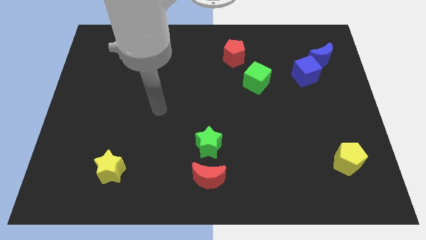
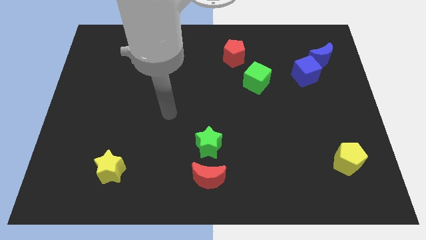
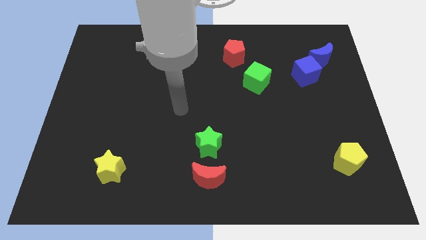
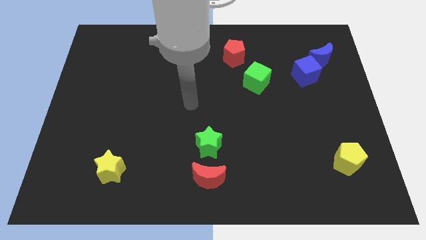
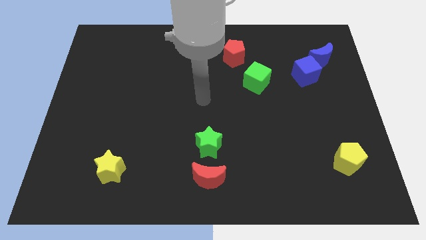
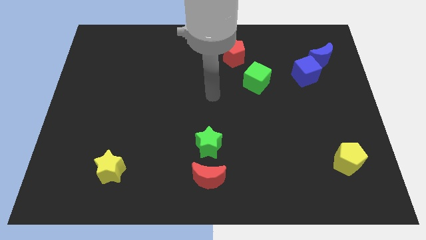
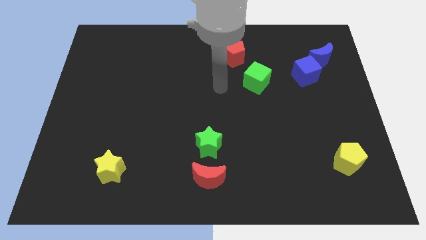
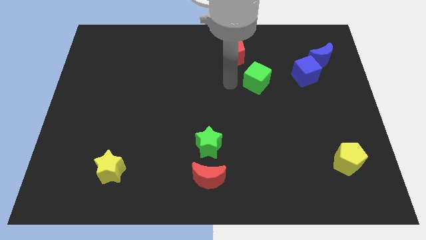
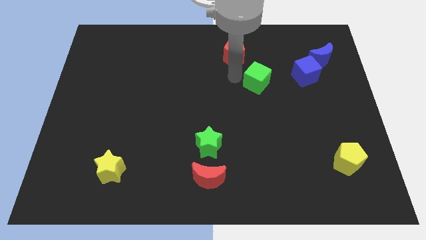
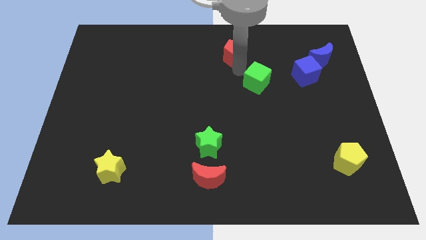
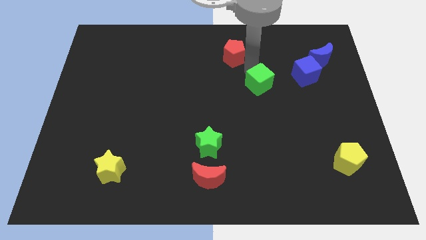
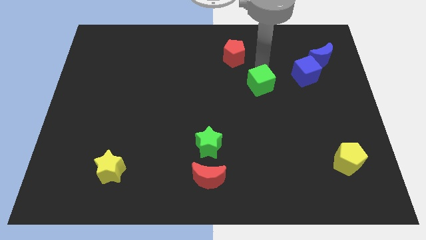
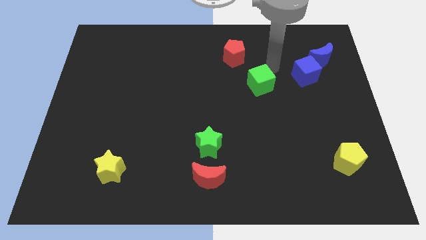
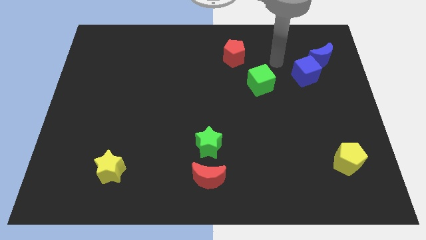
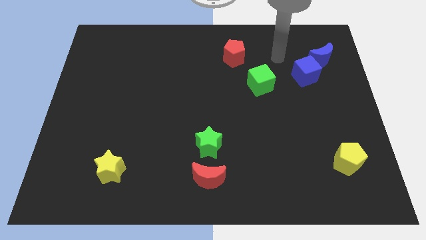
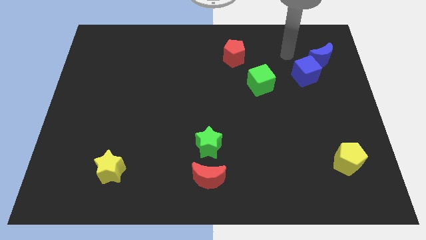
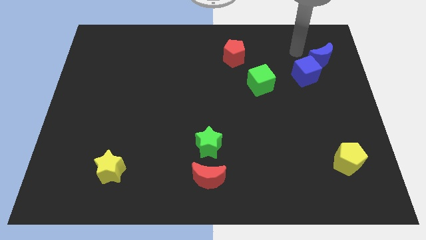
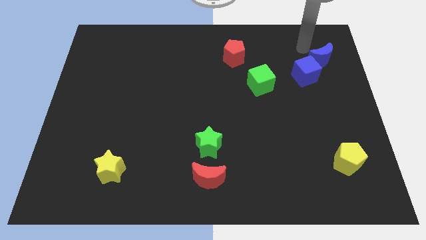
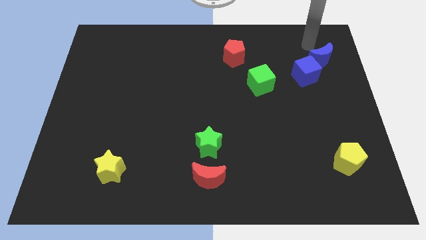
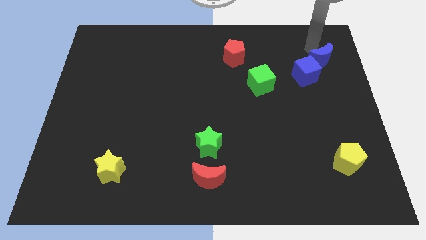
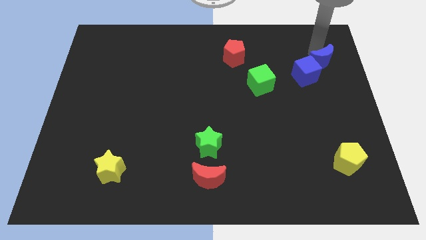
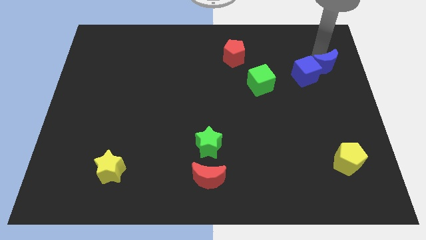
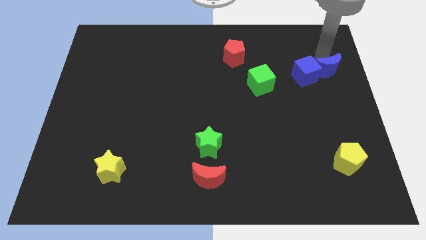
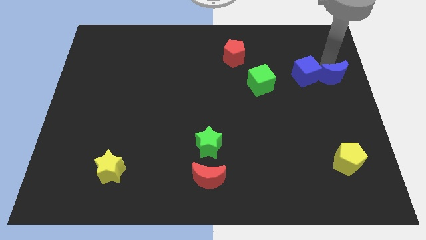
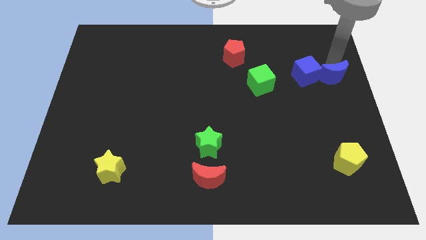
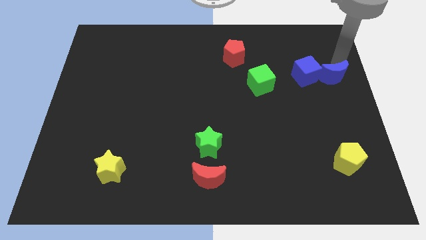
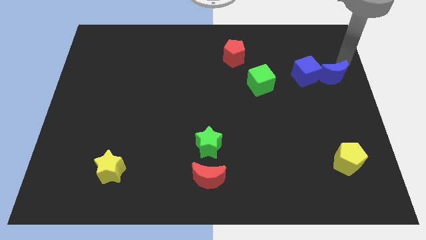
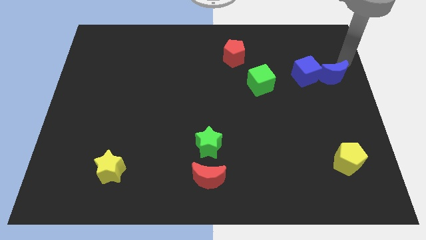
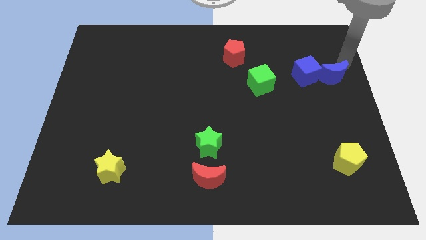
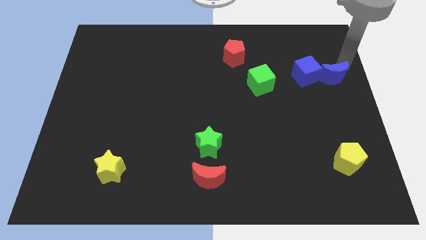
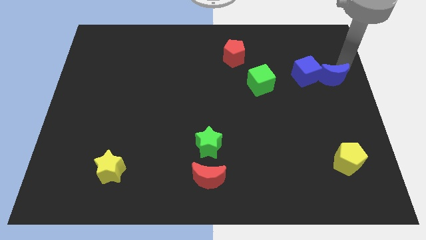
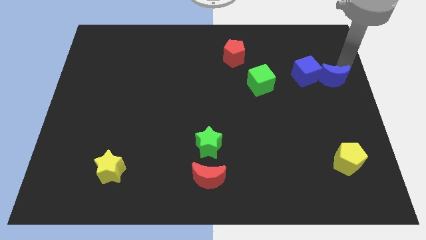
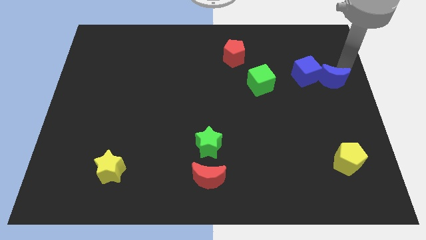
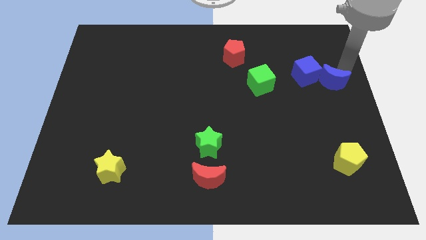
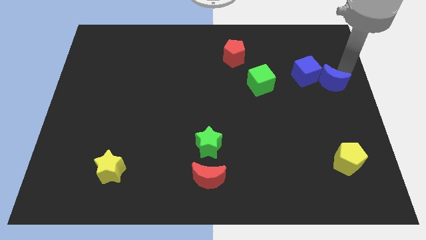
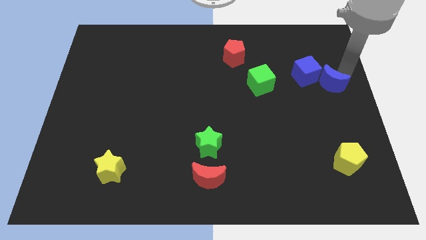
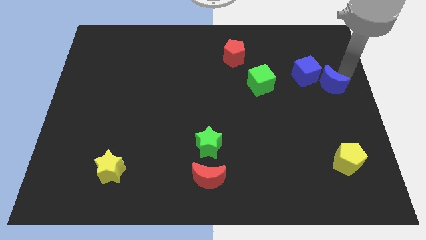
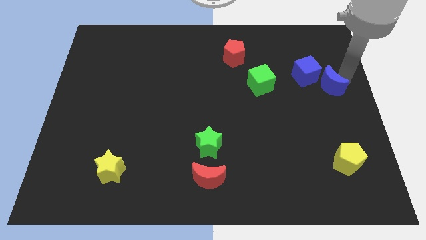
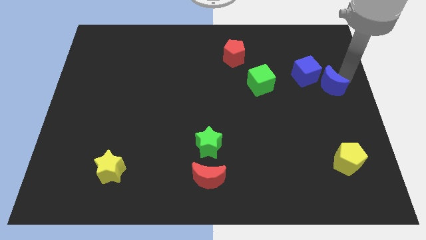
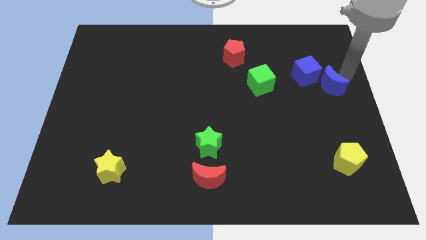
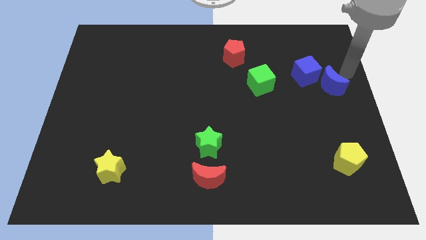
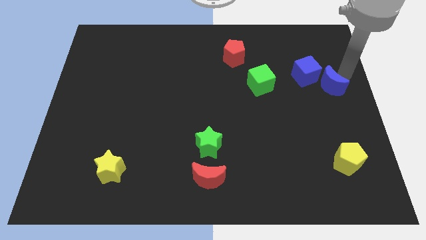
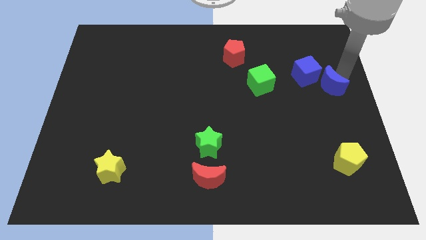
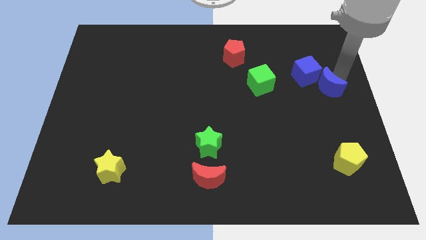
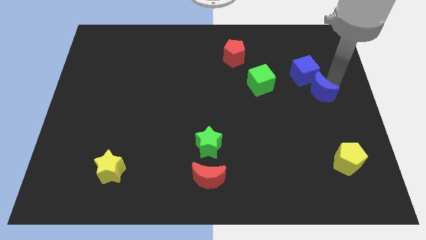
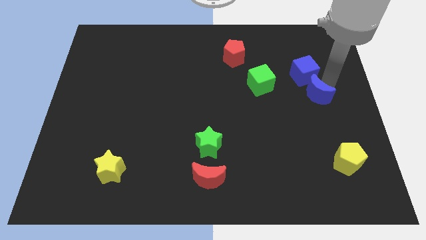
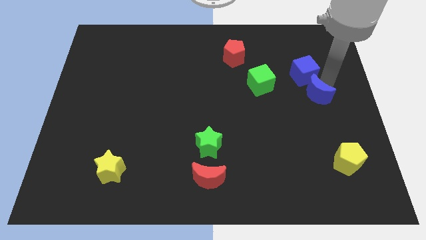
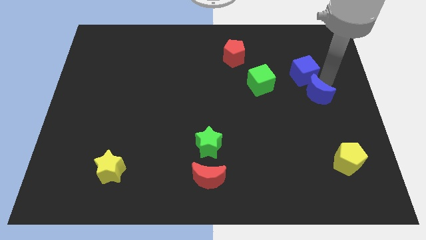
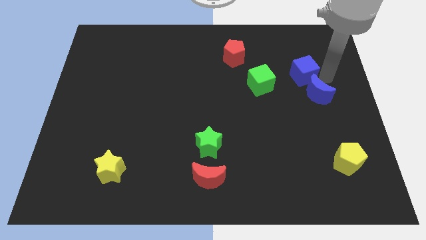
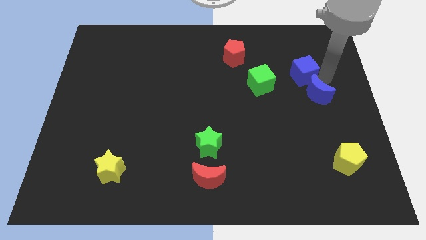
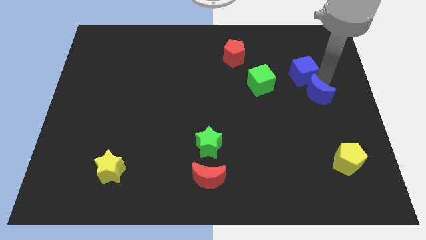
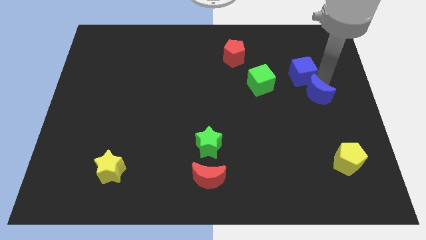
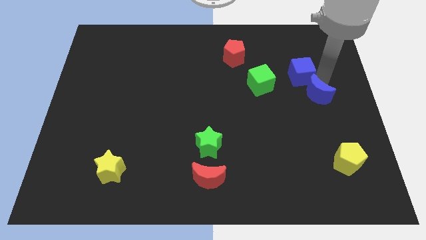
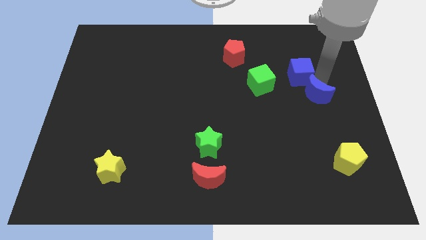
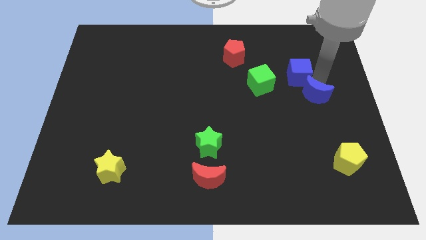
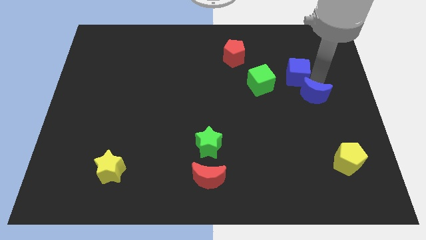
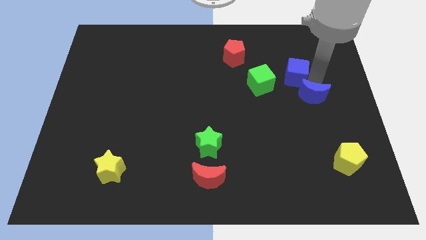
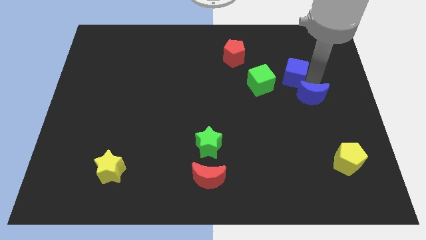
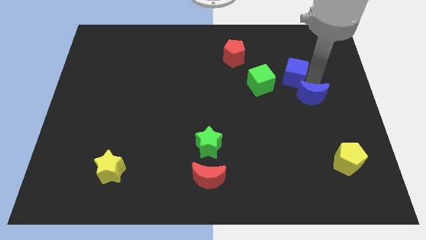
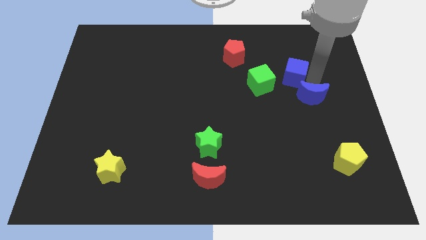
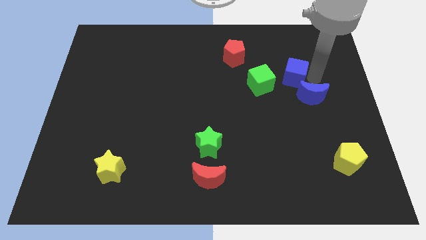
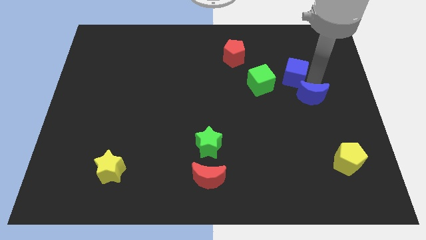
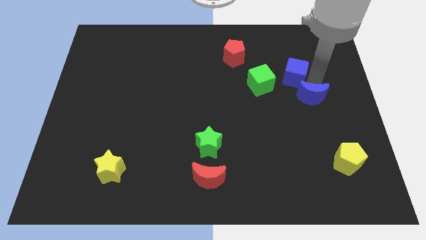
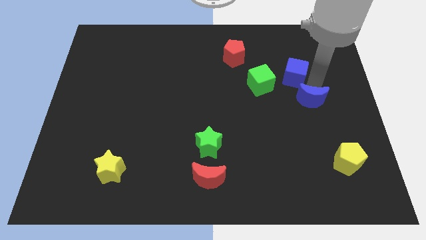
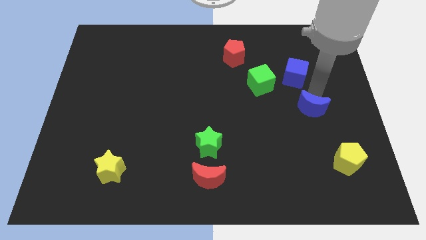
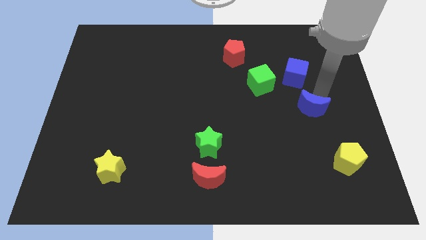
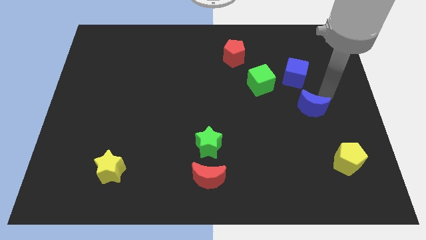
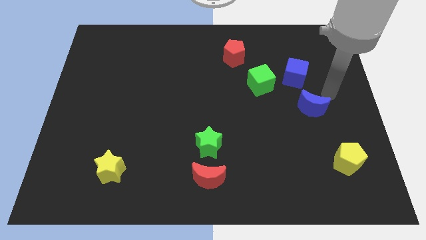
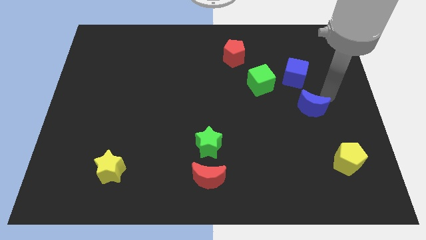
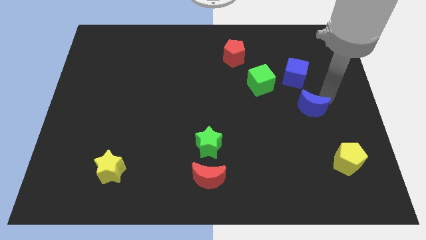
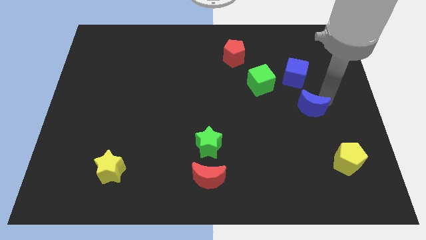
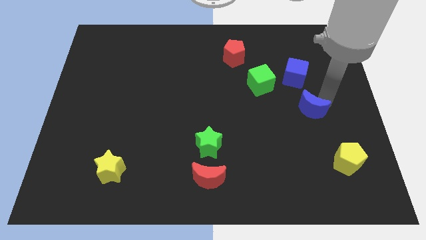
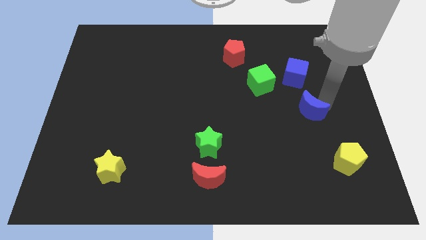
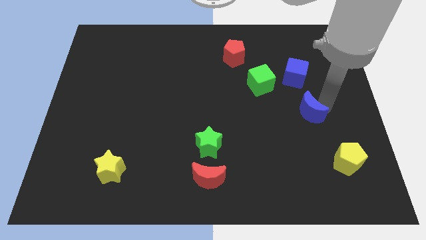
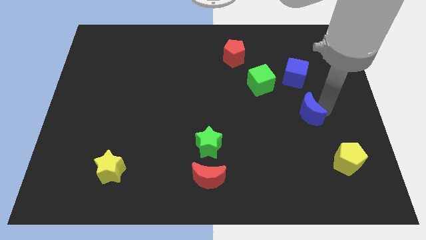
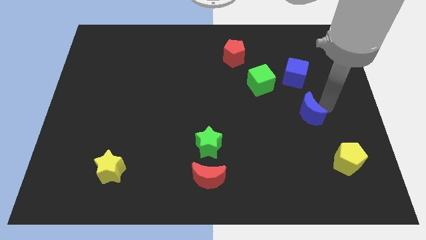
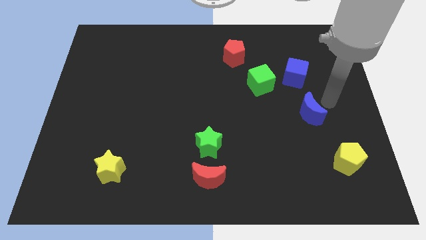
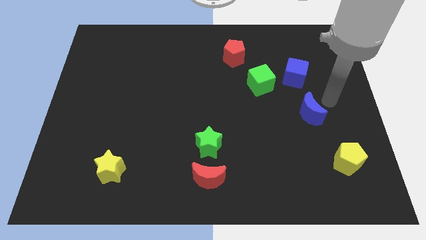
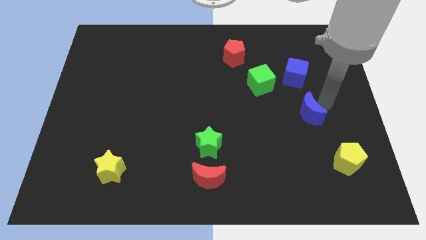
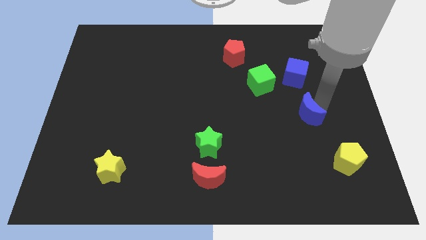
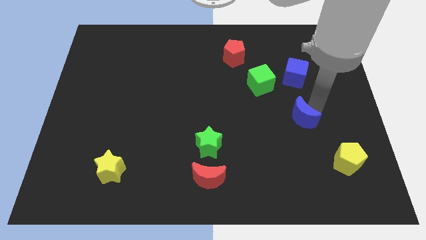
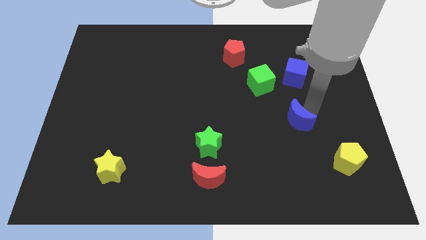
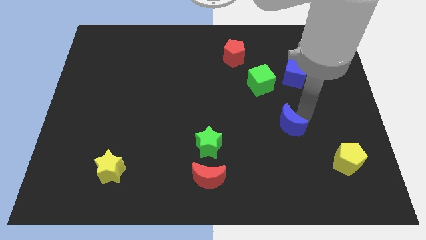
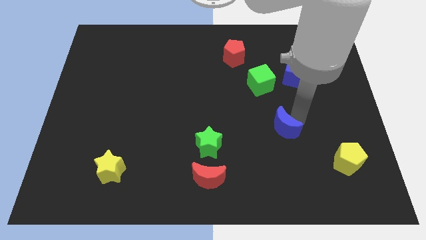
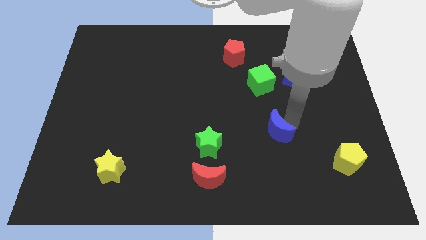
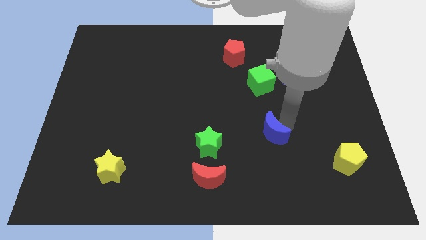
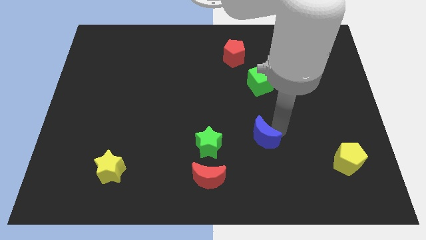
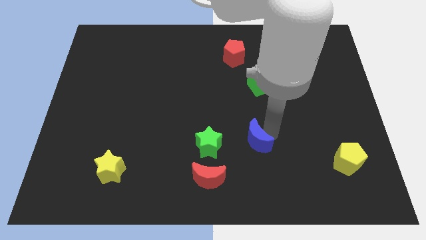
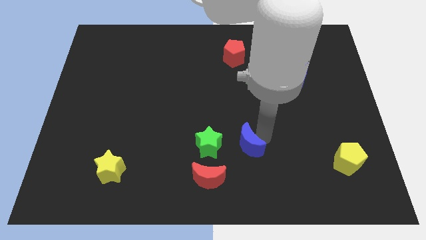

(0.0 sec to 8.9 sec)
move the blue moon diagonally up and to the right of the red moon
